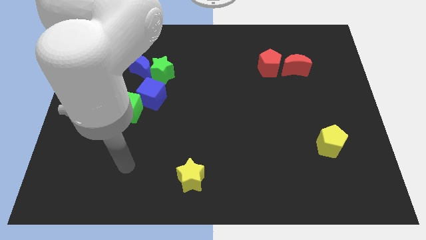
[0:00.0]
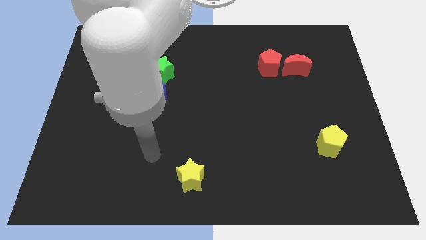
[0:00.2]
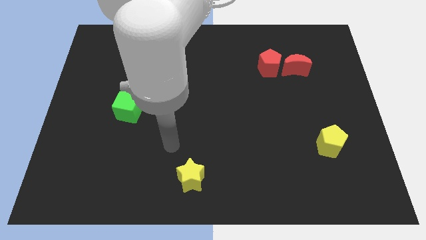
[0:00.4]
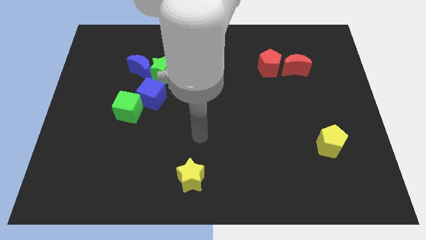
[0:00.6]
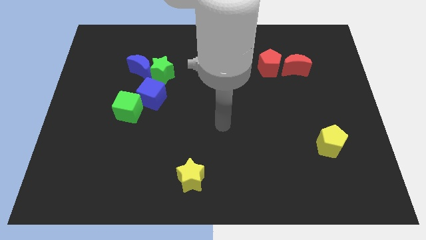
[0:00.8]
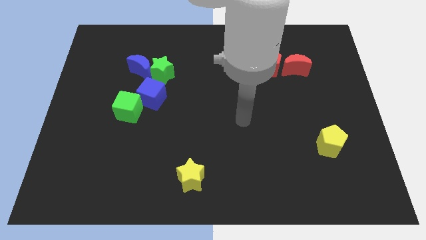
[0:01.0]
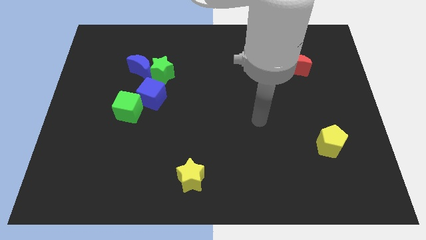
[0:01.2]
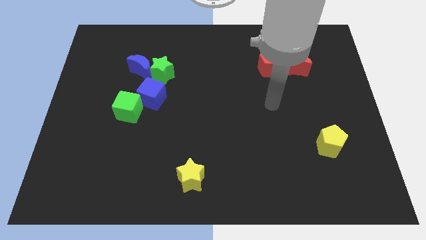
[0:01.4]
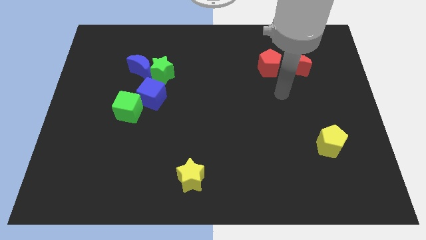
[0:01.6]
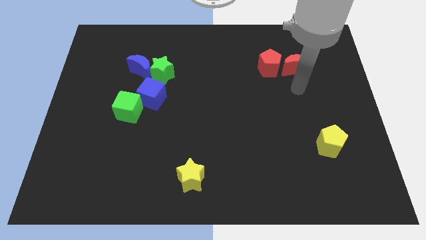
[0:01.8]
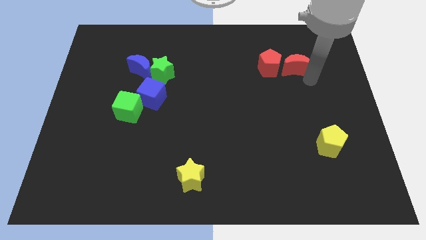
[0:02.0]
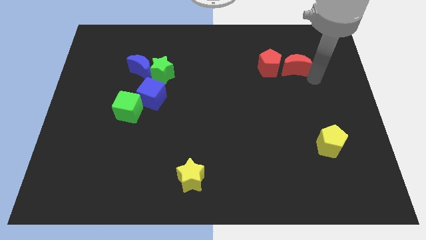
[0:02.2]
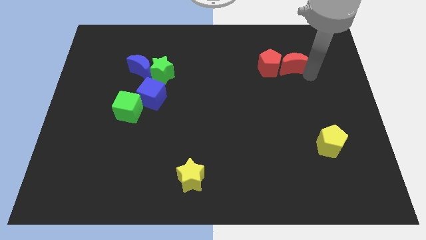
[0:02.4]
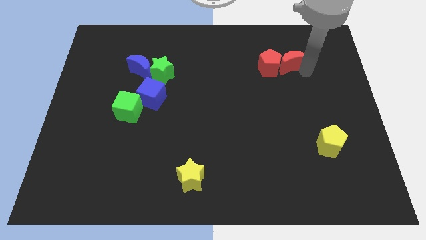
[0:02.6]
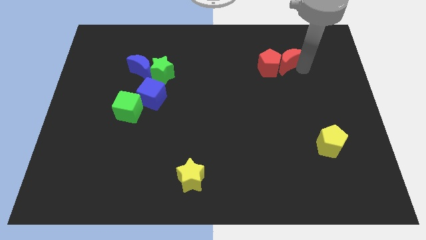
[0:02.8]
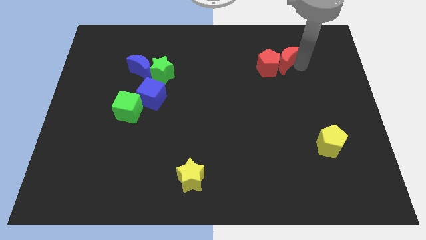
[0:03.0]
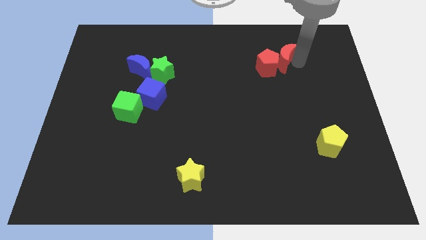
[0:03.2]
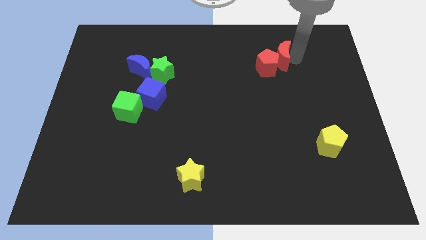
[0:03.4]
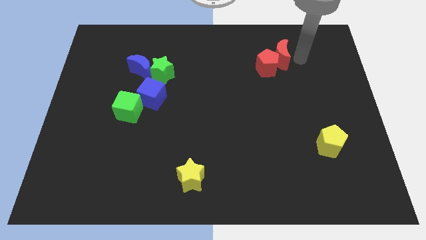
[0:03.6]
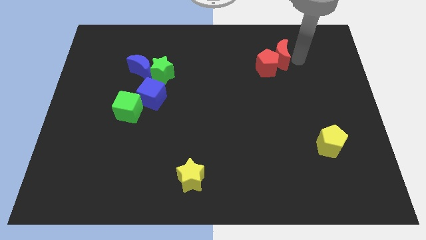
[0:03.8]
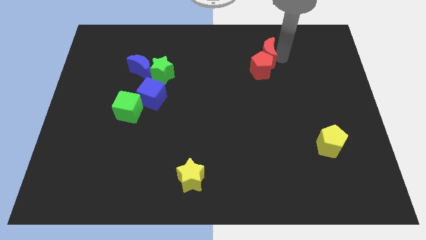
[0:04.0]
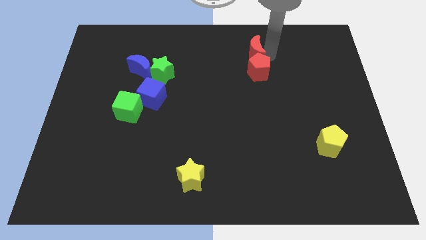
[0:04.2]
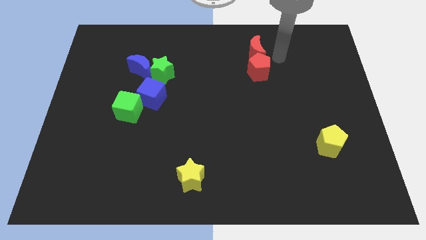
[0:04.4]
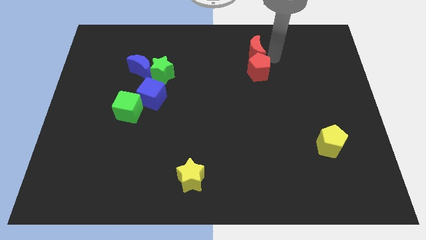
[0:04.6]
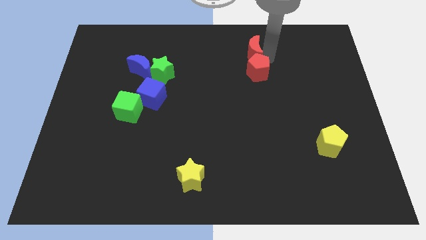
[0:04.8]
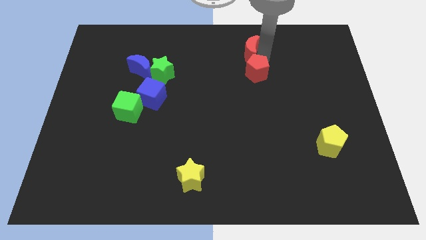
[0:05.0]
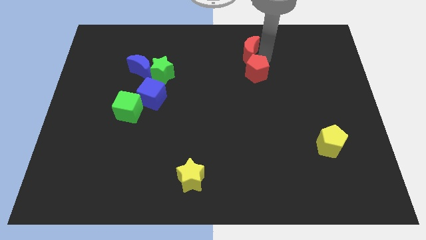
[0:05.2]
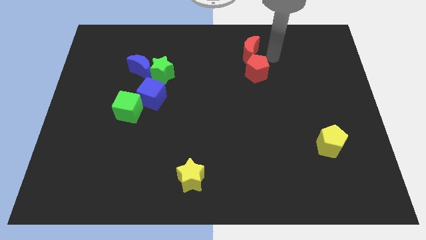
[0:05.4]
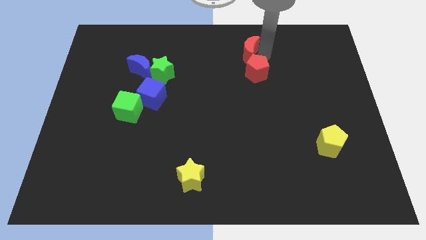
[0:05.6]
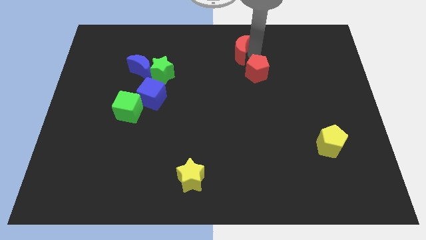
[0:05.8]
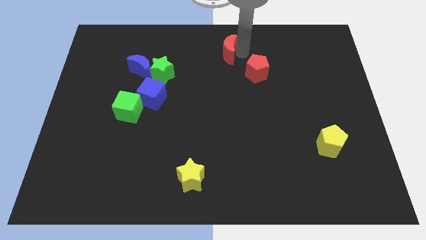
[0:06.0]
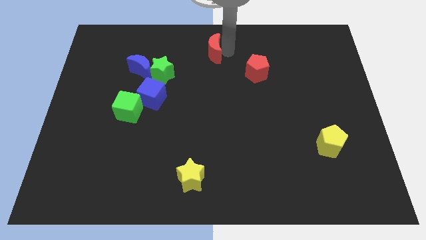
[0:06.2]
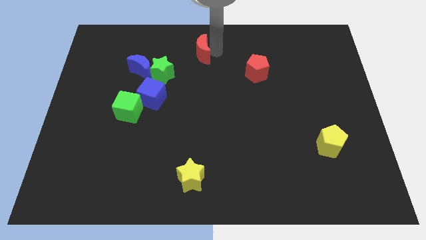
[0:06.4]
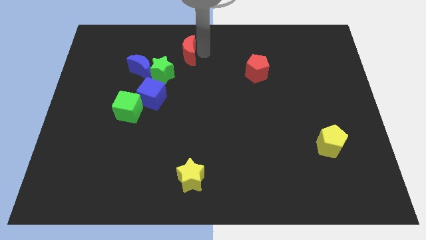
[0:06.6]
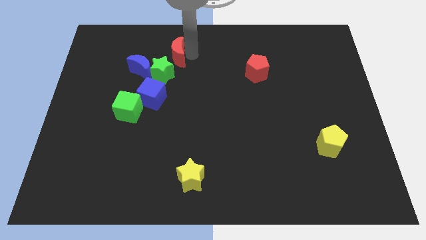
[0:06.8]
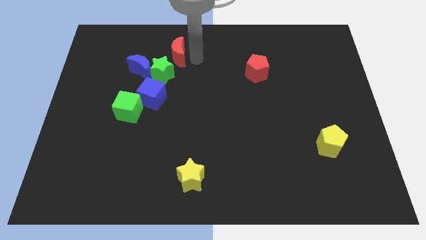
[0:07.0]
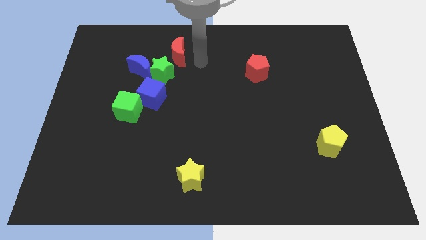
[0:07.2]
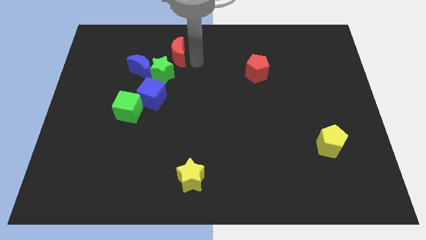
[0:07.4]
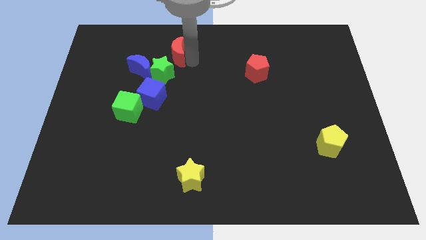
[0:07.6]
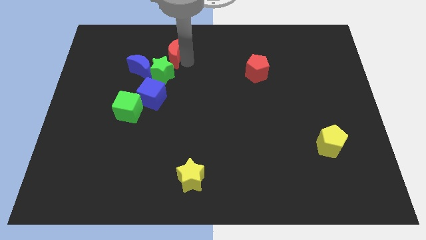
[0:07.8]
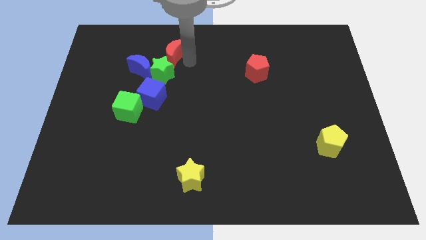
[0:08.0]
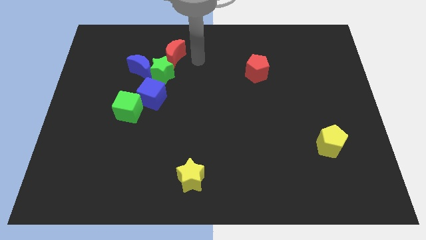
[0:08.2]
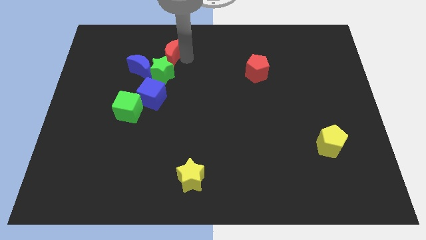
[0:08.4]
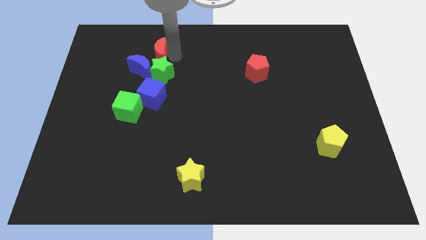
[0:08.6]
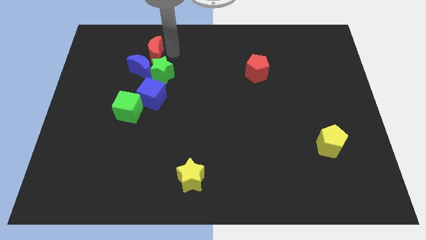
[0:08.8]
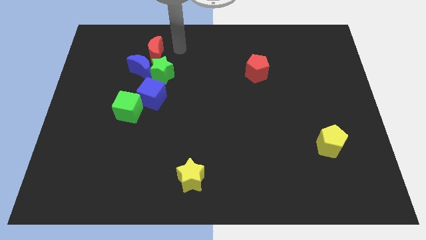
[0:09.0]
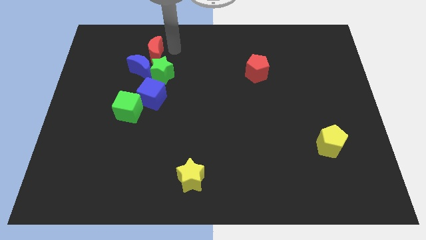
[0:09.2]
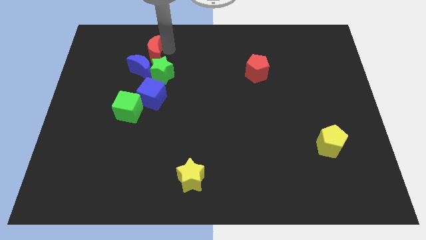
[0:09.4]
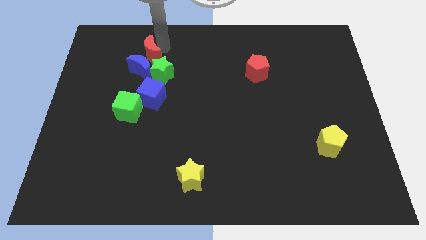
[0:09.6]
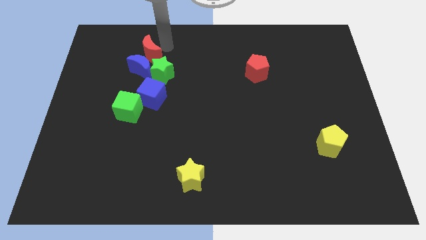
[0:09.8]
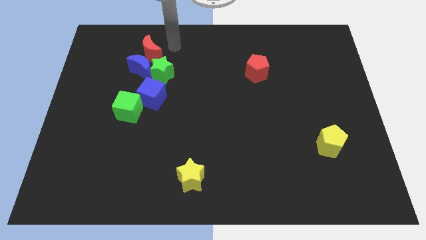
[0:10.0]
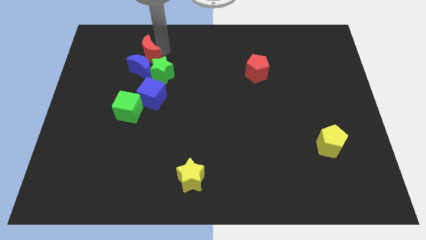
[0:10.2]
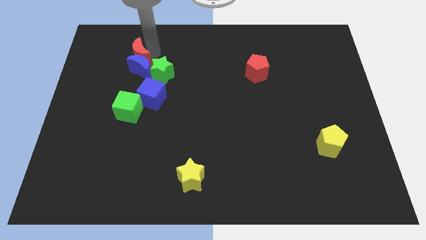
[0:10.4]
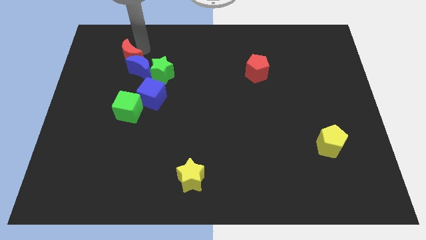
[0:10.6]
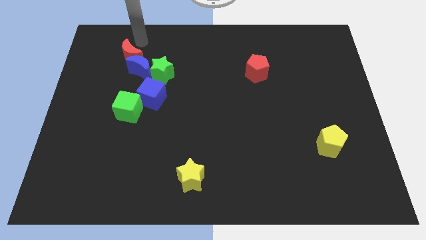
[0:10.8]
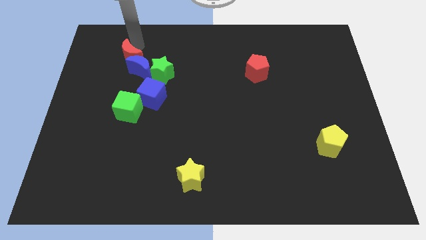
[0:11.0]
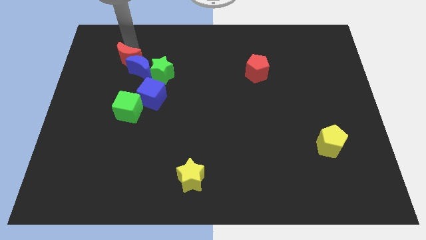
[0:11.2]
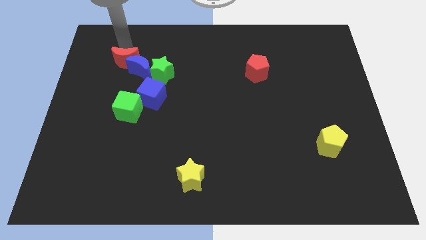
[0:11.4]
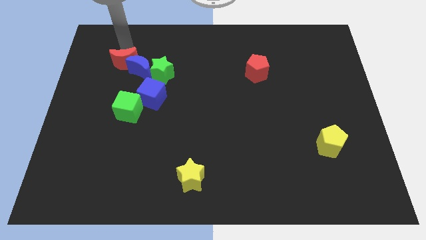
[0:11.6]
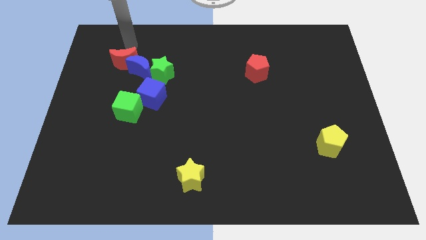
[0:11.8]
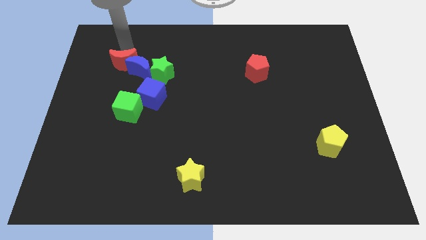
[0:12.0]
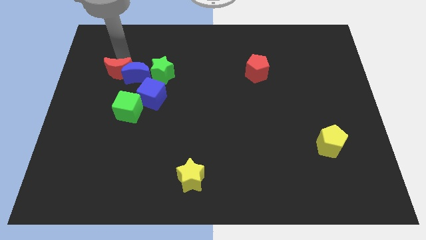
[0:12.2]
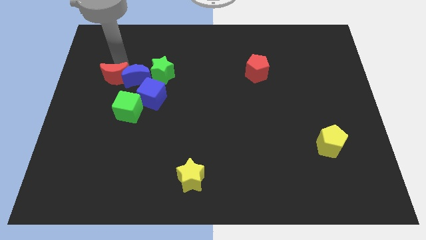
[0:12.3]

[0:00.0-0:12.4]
put the red moon diagonally up and to the left of the green cube

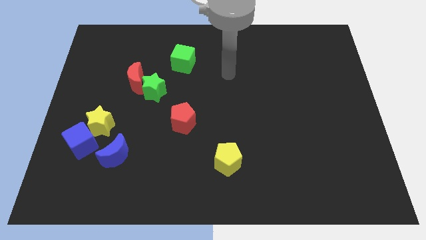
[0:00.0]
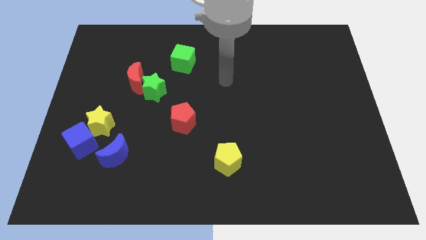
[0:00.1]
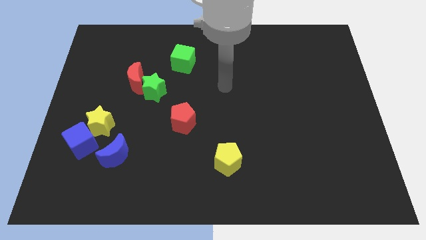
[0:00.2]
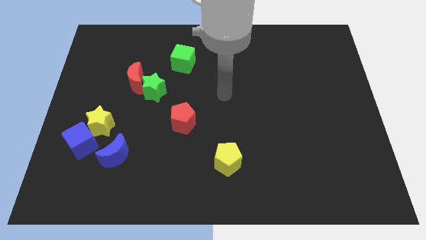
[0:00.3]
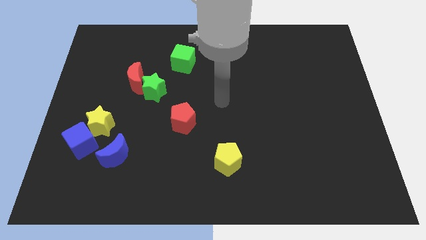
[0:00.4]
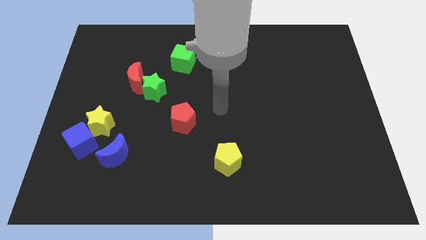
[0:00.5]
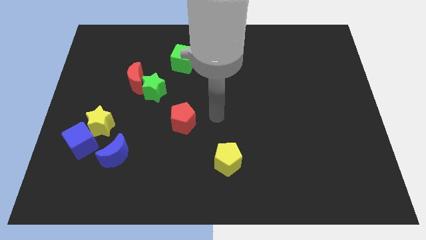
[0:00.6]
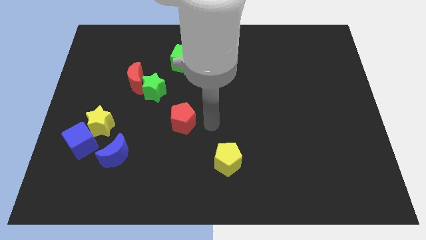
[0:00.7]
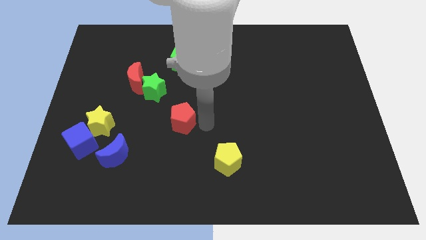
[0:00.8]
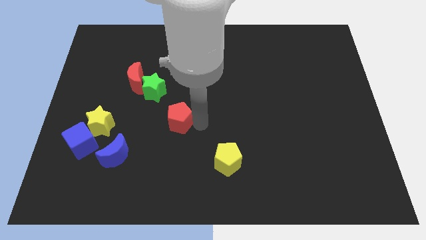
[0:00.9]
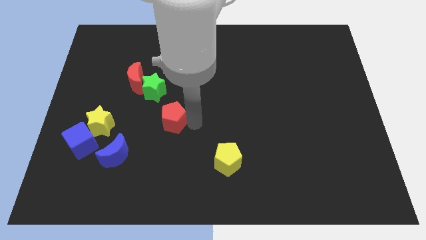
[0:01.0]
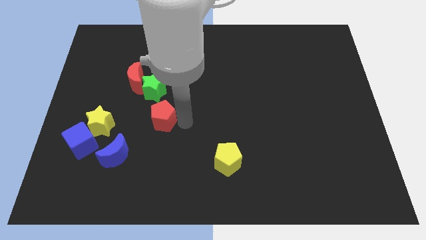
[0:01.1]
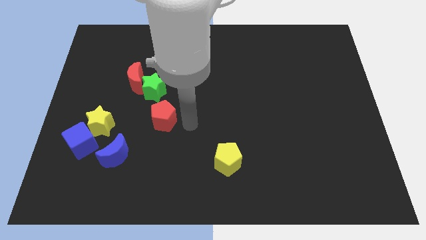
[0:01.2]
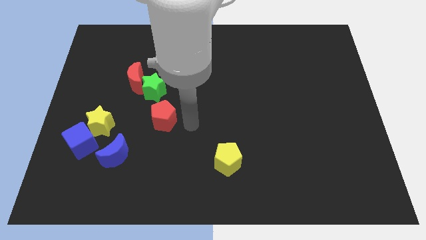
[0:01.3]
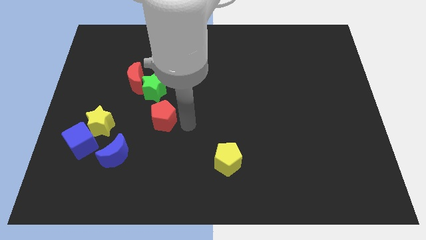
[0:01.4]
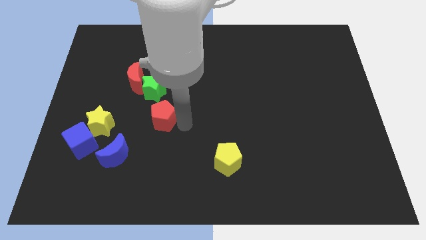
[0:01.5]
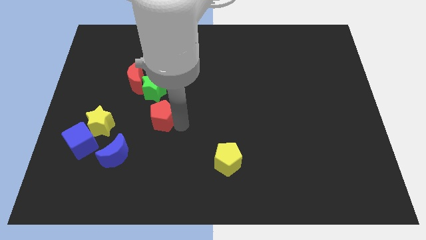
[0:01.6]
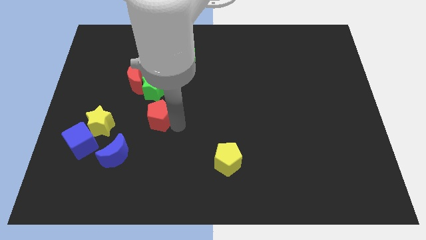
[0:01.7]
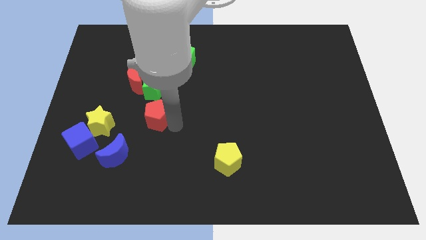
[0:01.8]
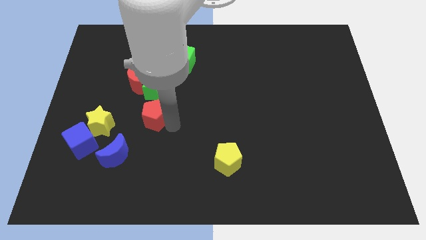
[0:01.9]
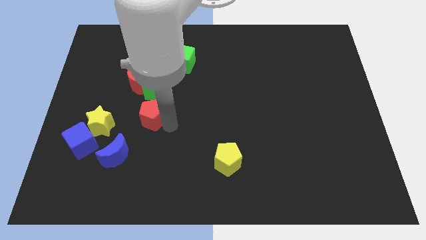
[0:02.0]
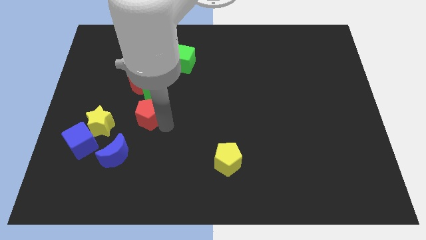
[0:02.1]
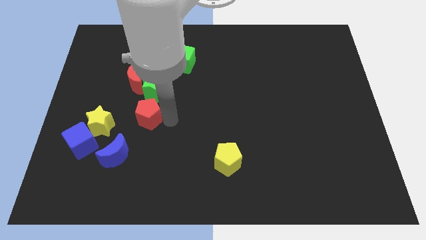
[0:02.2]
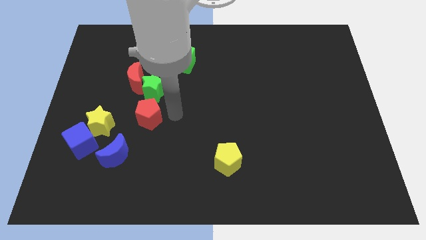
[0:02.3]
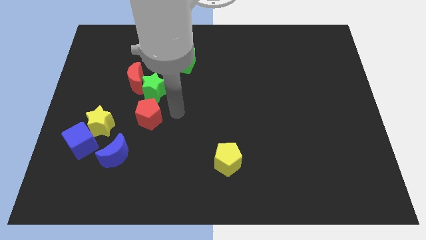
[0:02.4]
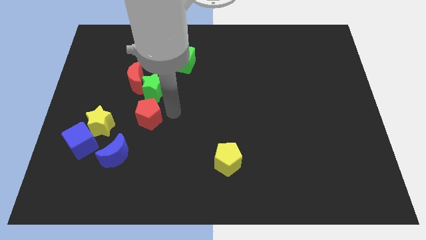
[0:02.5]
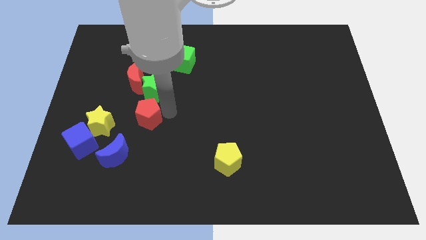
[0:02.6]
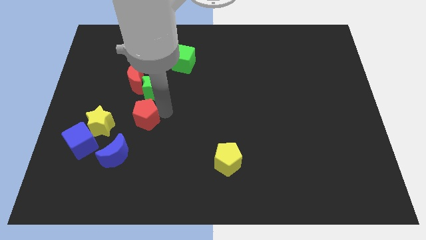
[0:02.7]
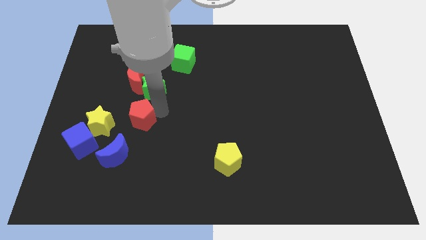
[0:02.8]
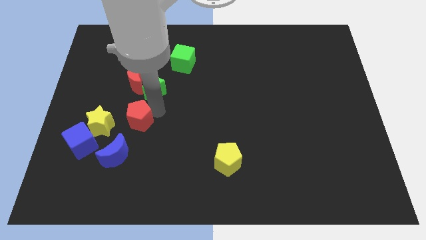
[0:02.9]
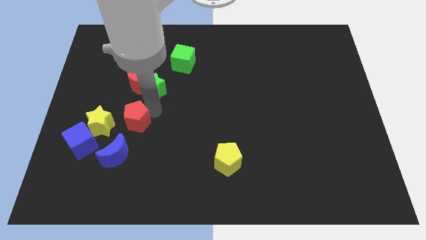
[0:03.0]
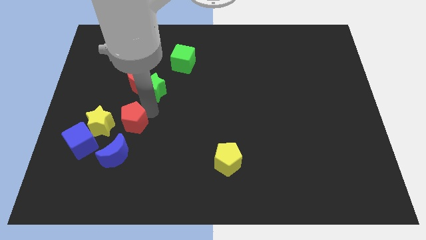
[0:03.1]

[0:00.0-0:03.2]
move the red pentagon to the top right of the blue cube
